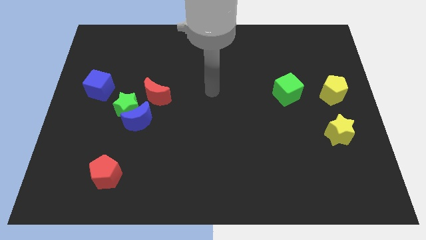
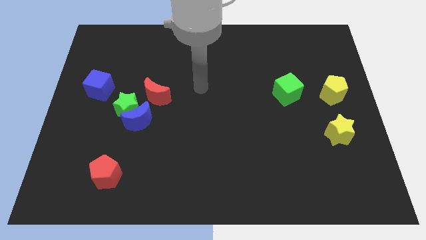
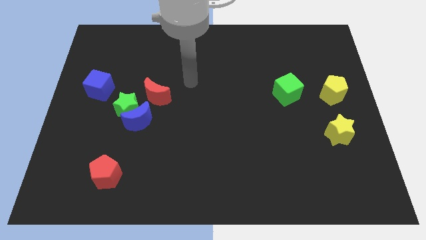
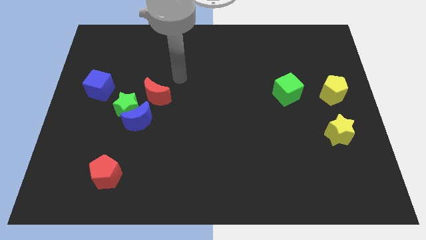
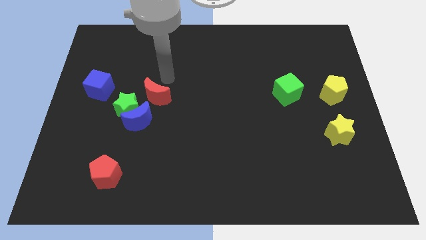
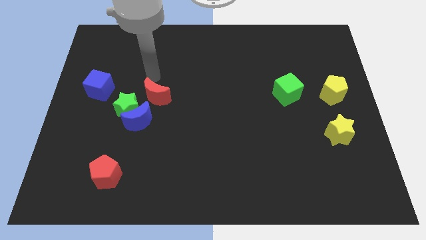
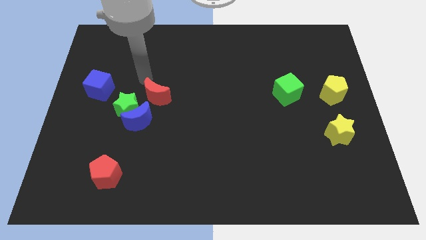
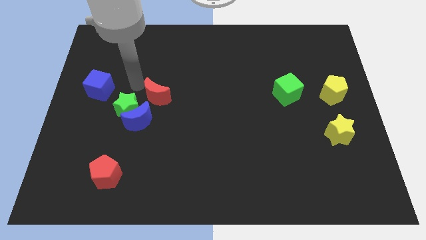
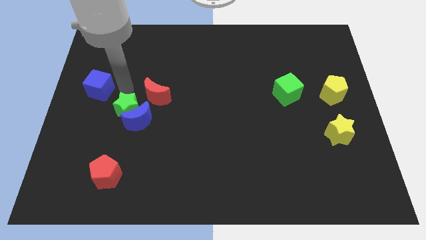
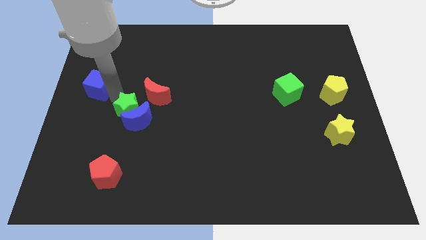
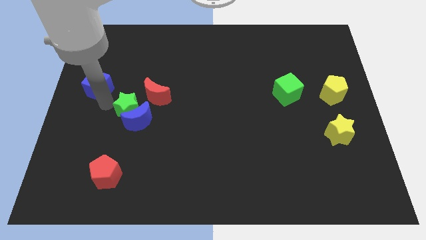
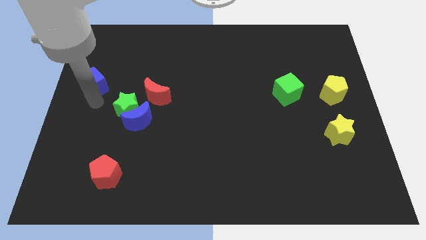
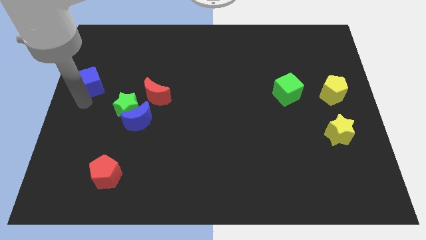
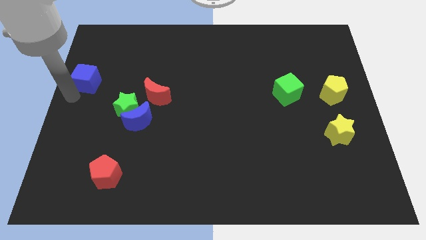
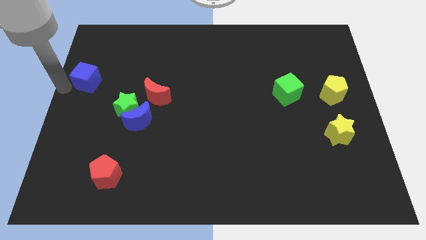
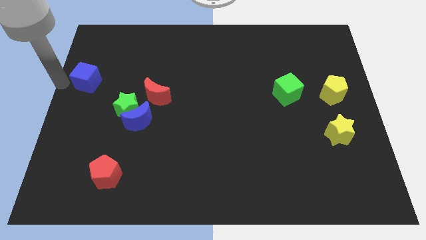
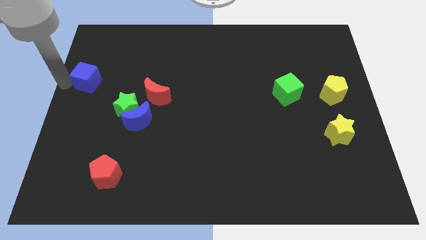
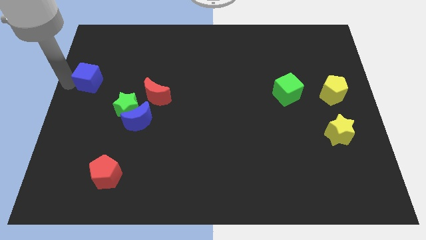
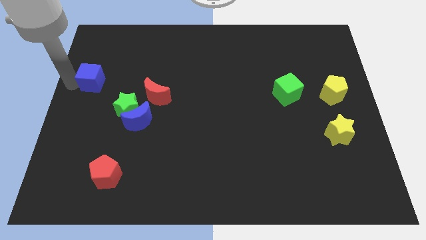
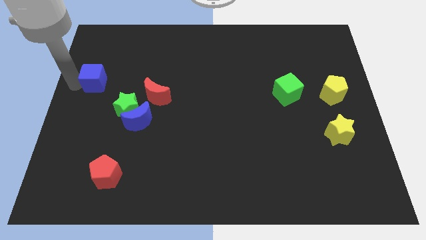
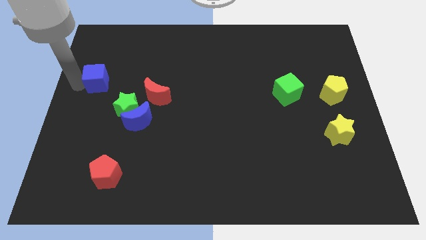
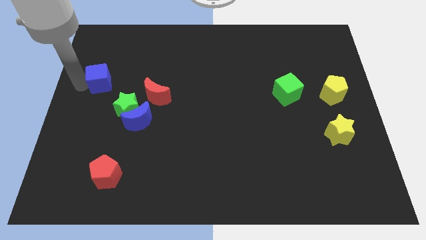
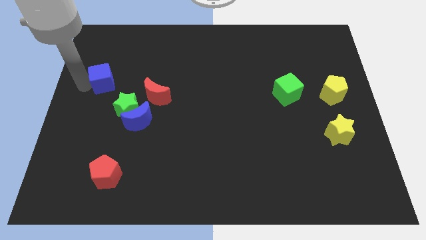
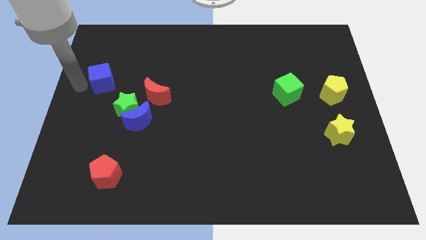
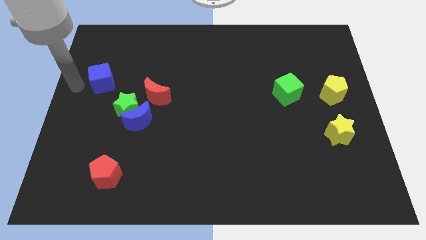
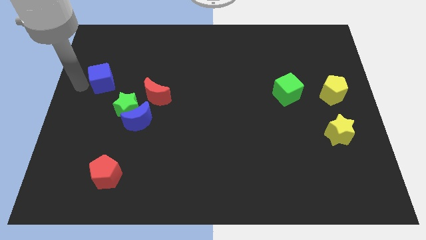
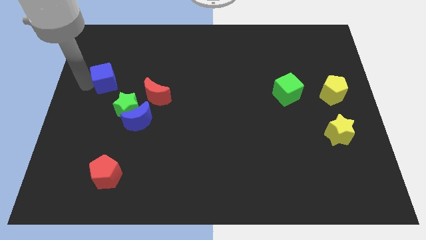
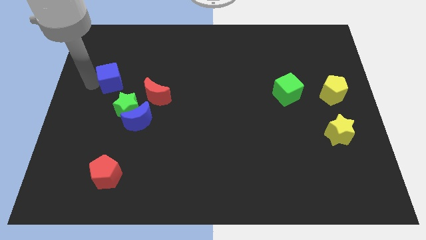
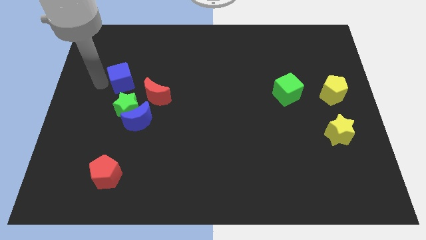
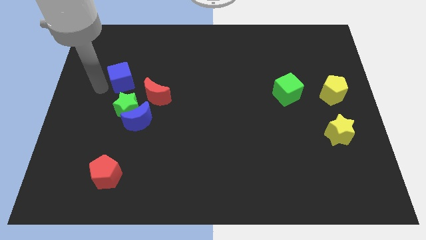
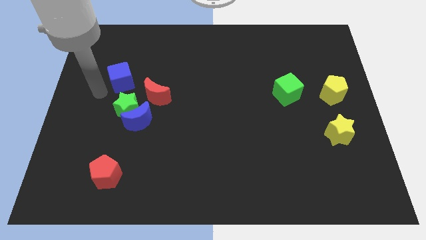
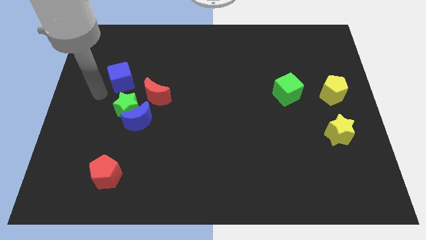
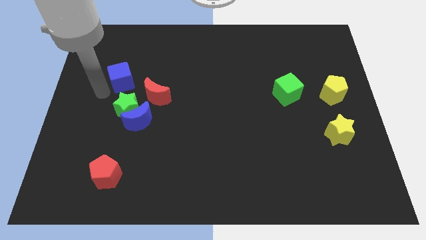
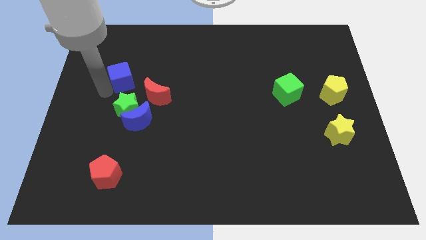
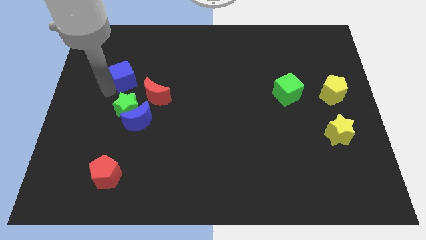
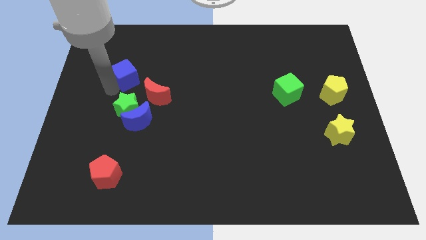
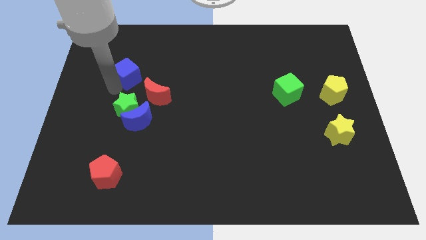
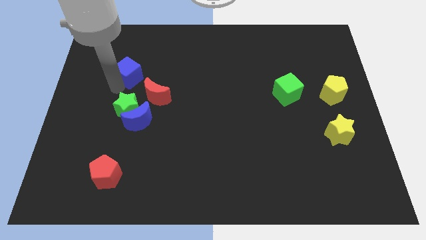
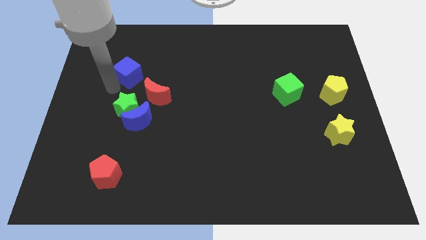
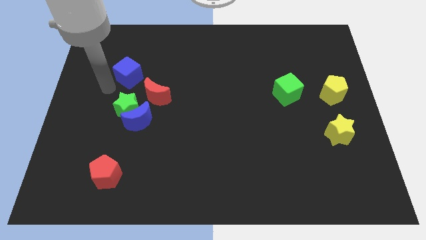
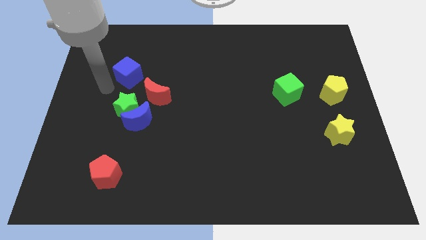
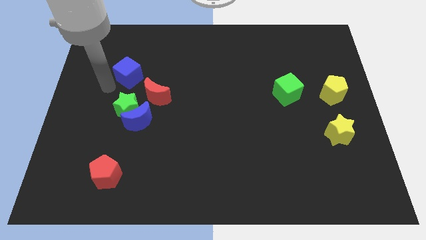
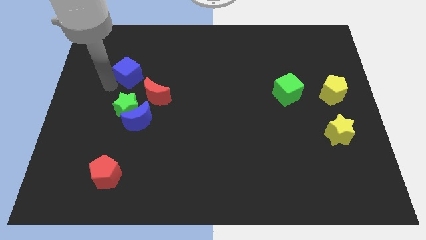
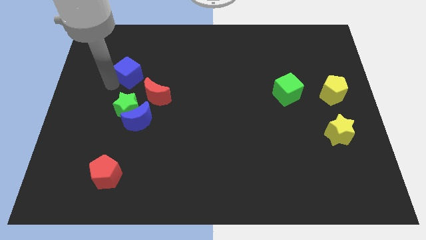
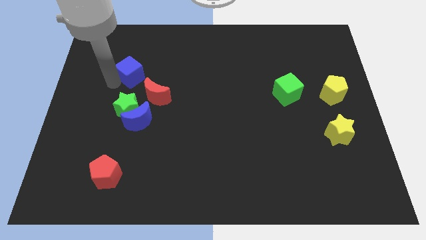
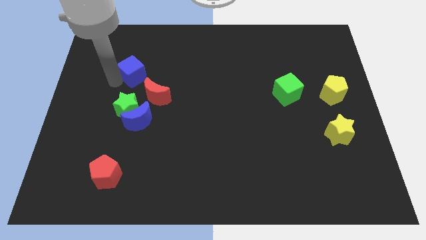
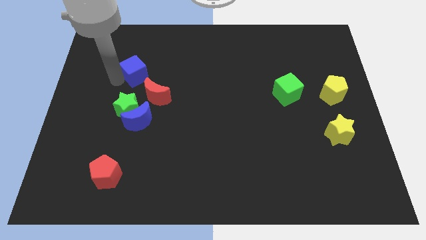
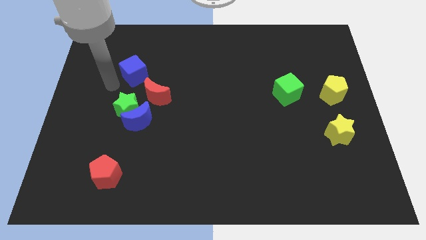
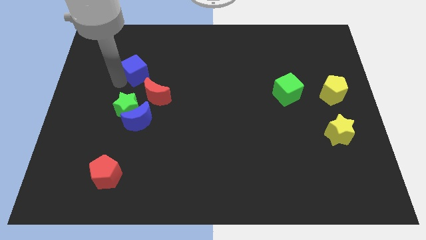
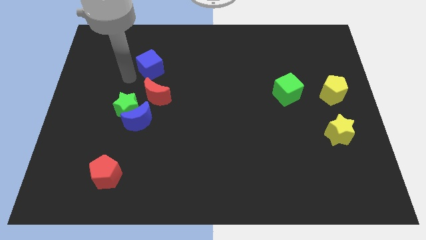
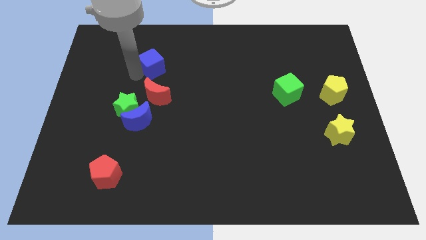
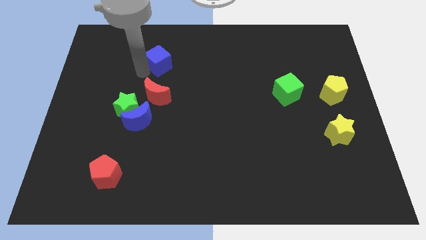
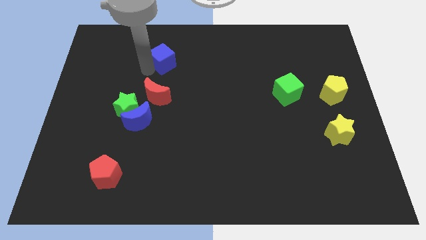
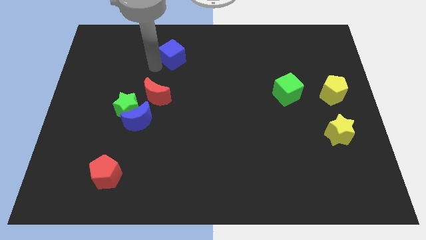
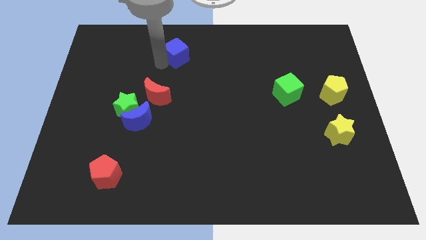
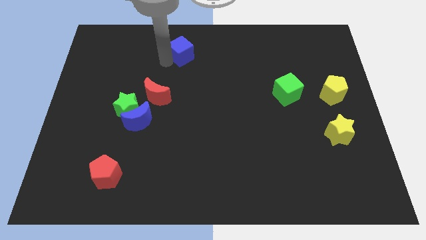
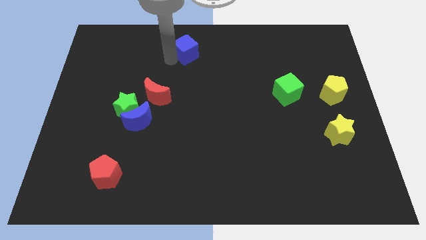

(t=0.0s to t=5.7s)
slide the blue cube to the top side
